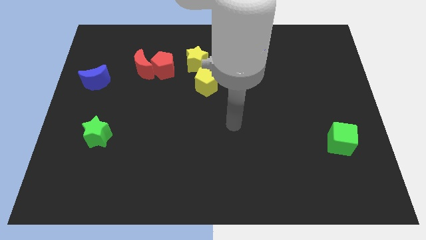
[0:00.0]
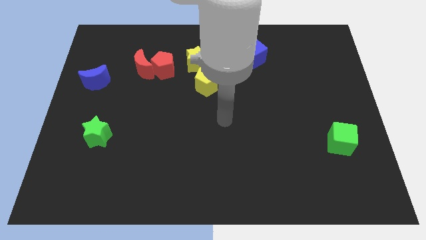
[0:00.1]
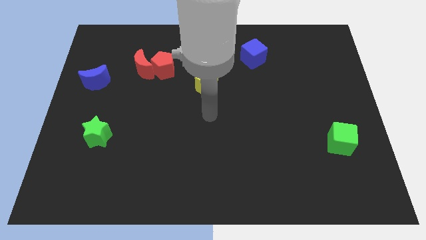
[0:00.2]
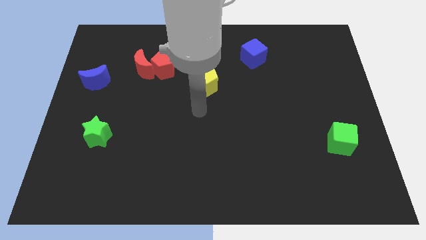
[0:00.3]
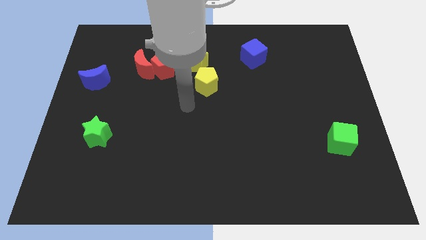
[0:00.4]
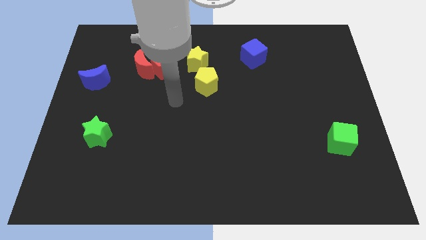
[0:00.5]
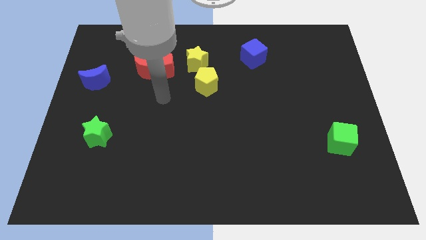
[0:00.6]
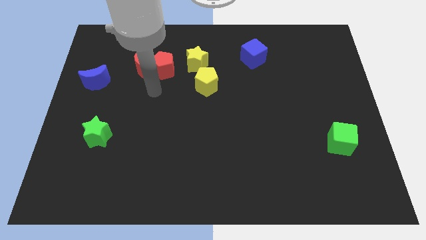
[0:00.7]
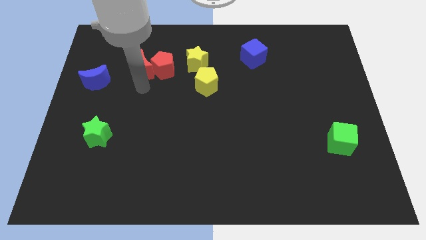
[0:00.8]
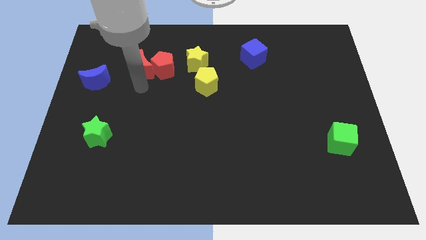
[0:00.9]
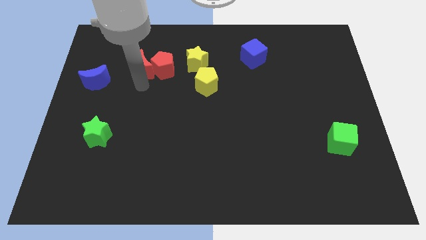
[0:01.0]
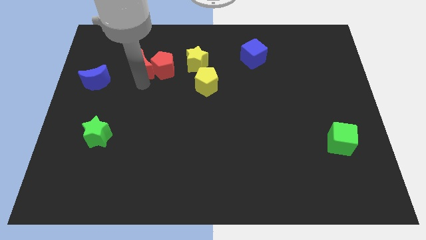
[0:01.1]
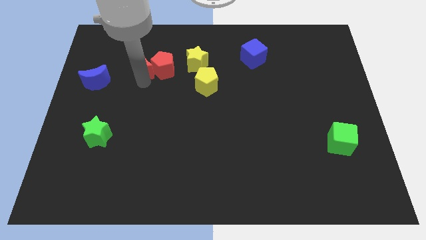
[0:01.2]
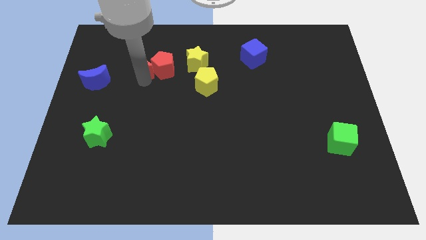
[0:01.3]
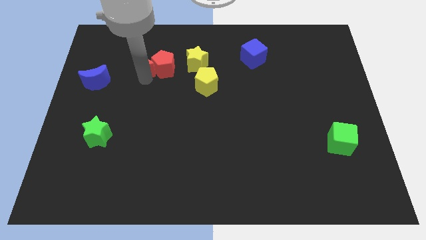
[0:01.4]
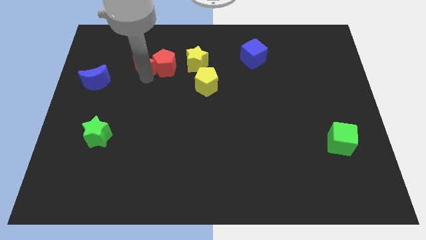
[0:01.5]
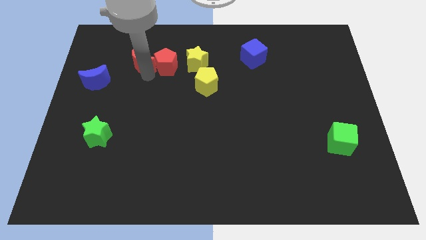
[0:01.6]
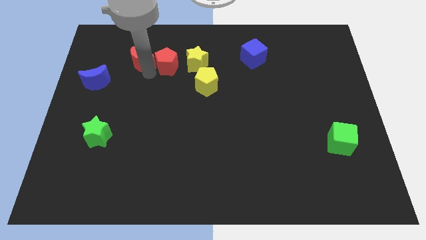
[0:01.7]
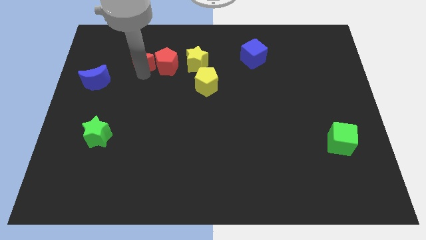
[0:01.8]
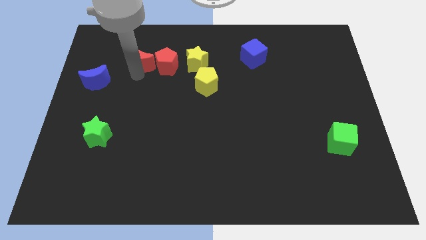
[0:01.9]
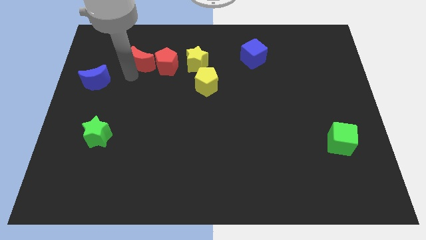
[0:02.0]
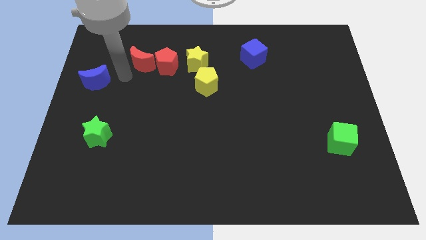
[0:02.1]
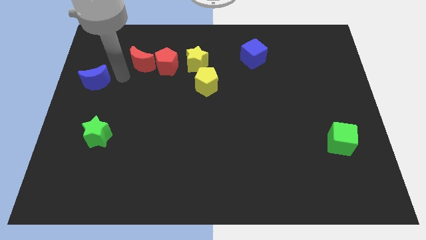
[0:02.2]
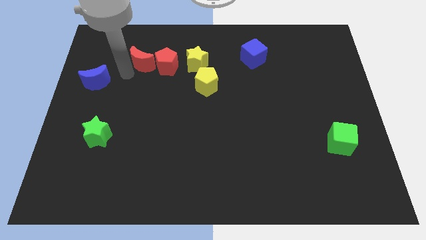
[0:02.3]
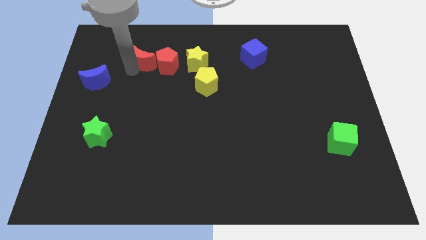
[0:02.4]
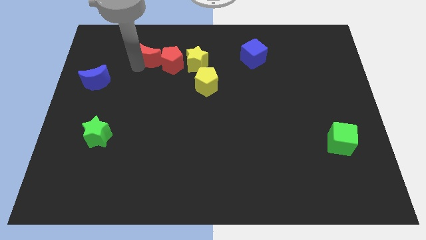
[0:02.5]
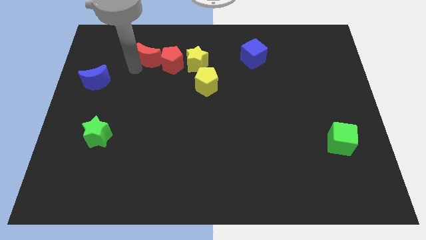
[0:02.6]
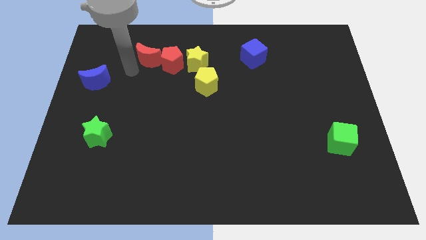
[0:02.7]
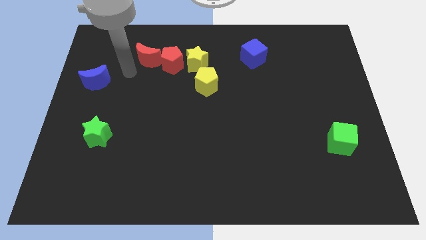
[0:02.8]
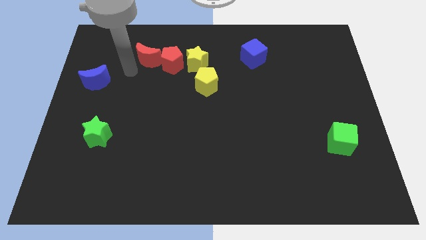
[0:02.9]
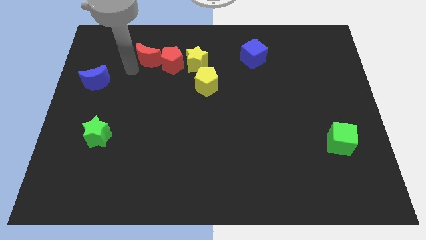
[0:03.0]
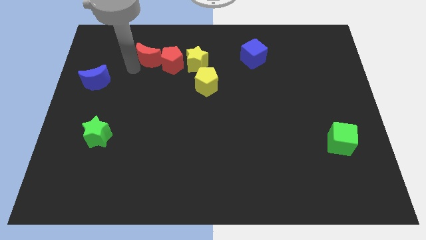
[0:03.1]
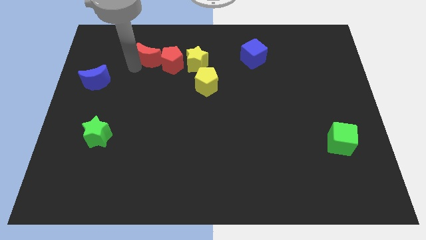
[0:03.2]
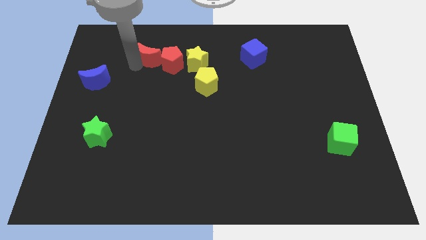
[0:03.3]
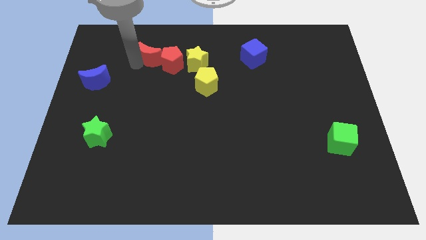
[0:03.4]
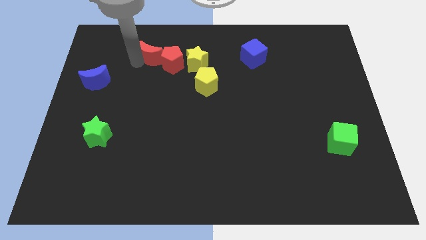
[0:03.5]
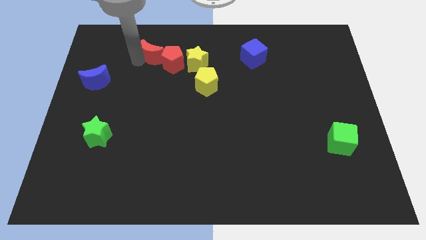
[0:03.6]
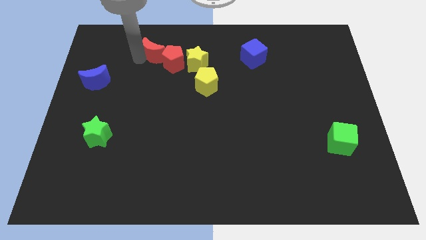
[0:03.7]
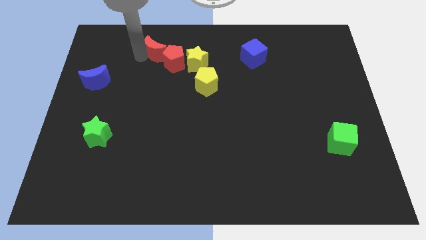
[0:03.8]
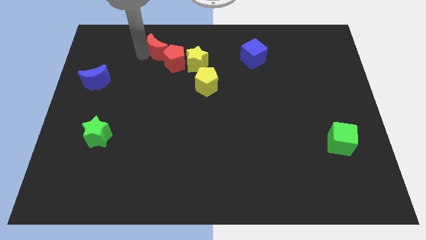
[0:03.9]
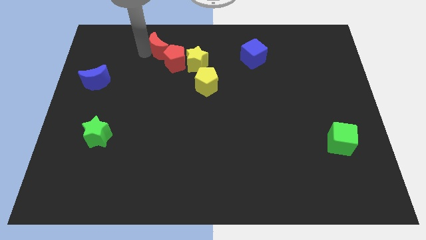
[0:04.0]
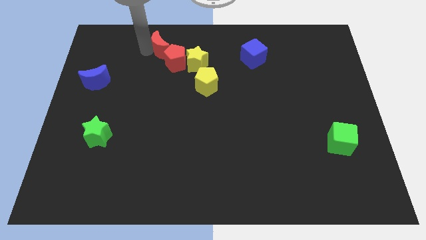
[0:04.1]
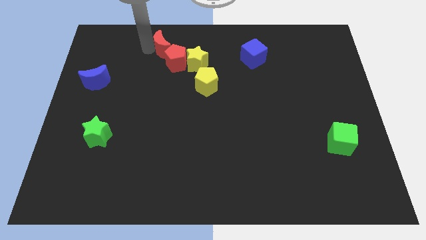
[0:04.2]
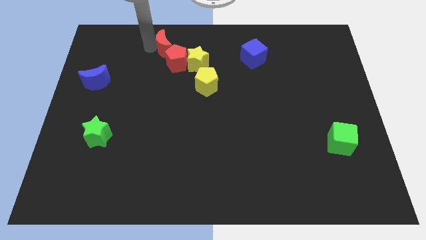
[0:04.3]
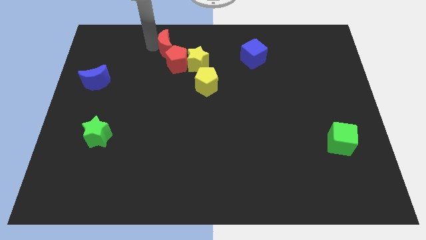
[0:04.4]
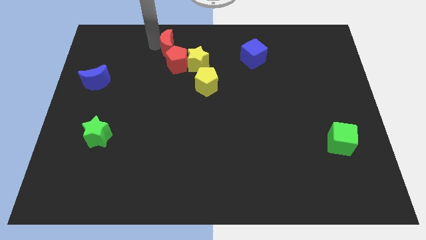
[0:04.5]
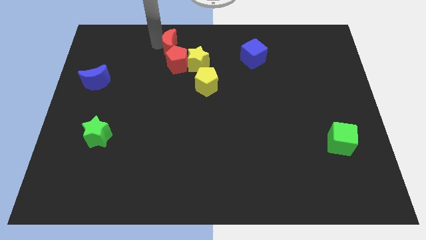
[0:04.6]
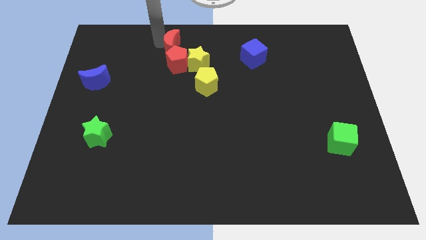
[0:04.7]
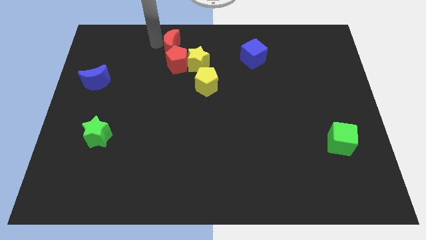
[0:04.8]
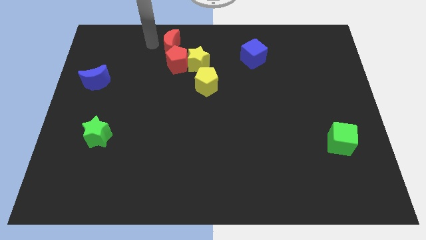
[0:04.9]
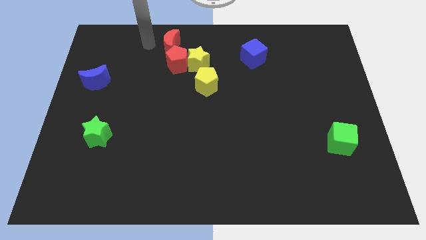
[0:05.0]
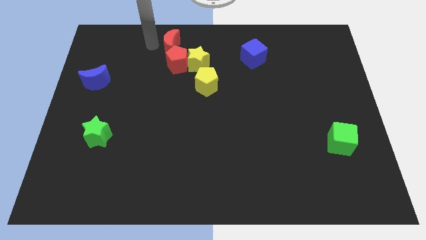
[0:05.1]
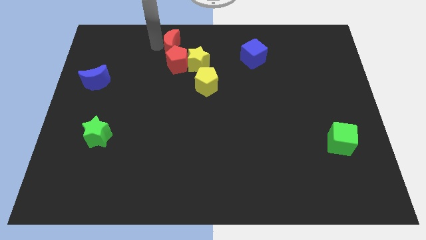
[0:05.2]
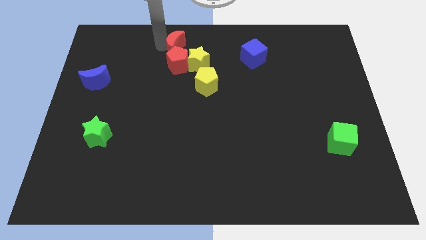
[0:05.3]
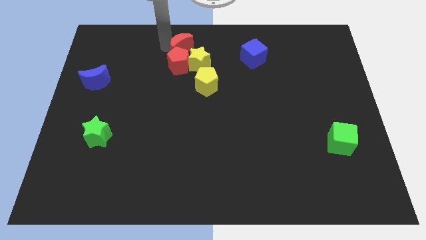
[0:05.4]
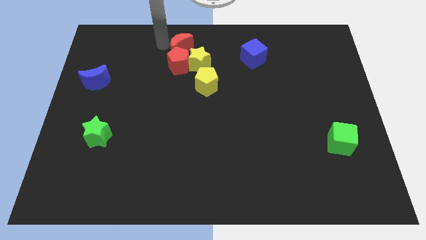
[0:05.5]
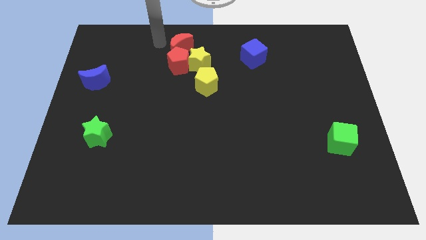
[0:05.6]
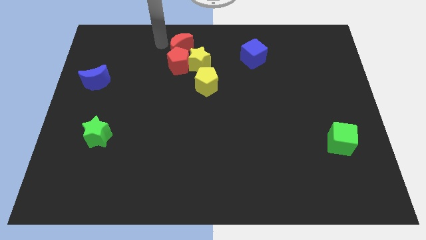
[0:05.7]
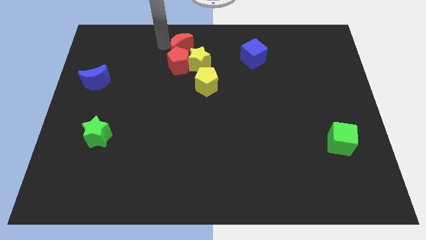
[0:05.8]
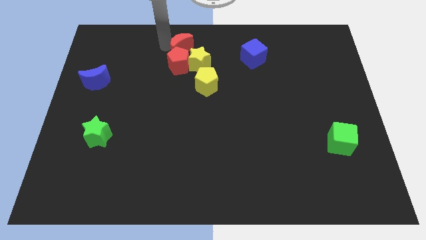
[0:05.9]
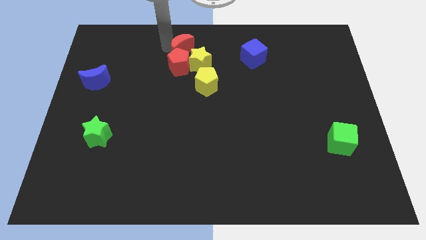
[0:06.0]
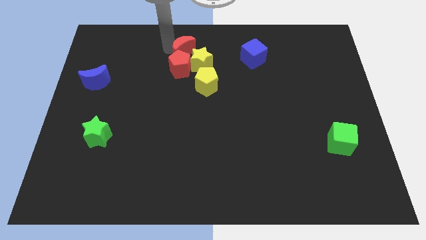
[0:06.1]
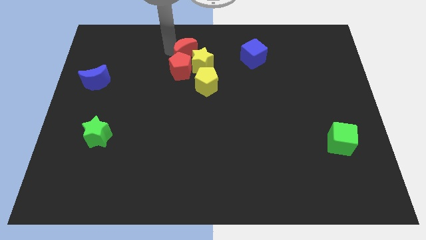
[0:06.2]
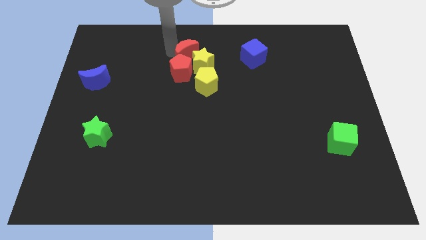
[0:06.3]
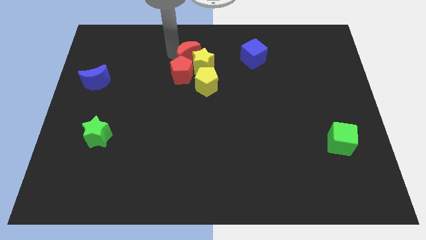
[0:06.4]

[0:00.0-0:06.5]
move the red moon above the yellow pentagon

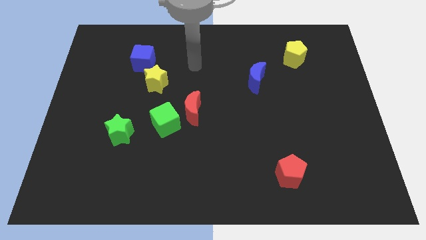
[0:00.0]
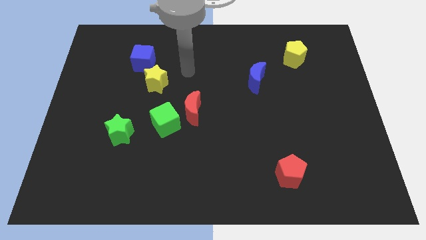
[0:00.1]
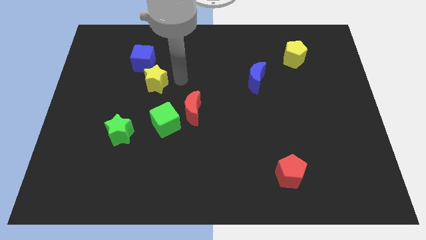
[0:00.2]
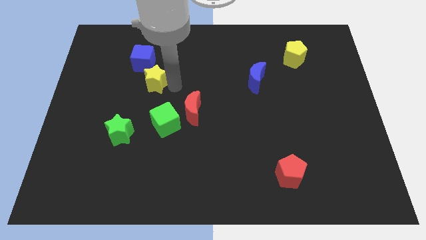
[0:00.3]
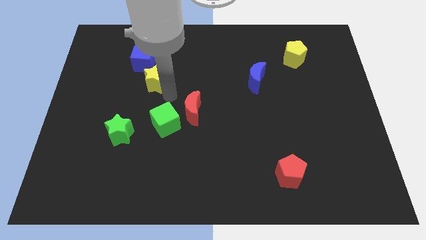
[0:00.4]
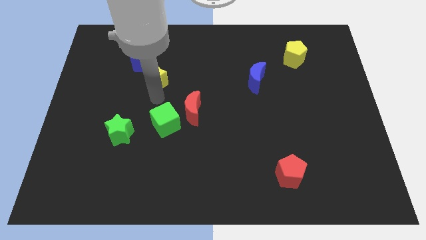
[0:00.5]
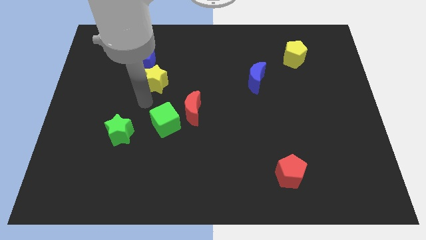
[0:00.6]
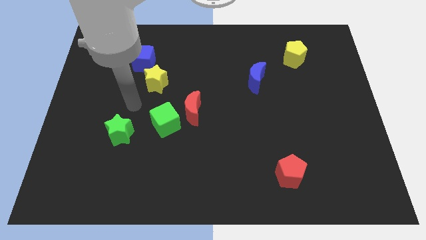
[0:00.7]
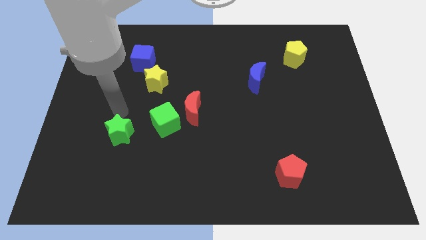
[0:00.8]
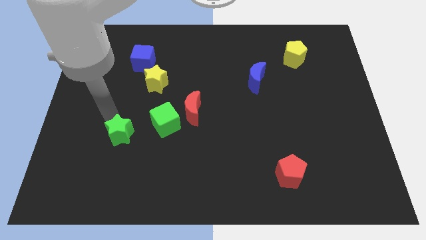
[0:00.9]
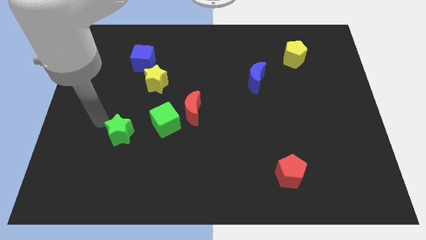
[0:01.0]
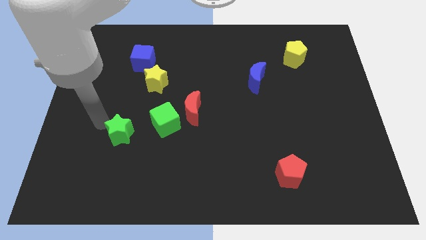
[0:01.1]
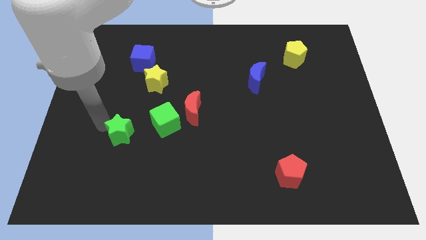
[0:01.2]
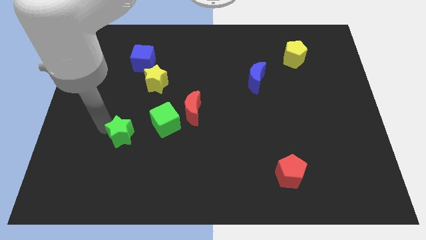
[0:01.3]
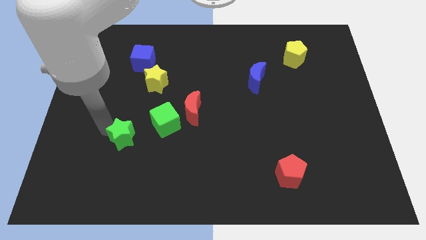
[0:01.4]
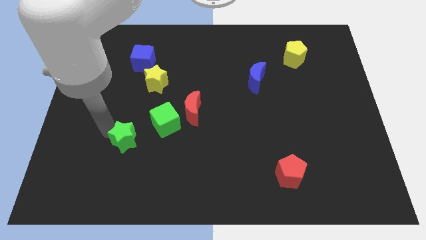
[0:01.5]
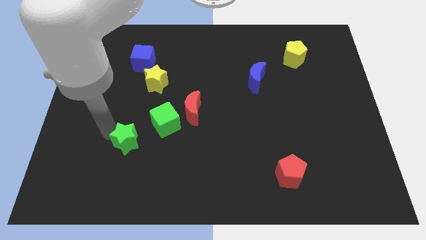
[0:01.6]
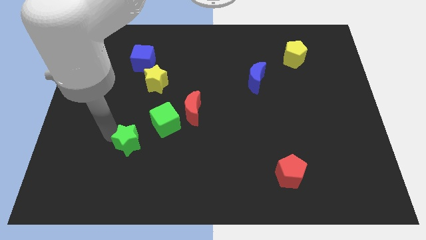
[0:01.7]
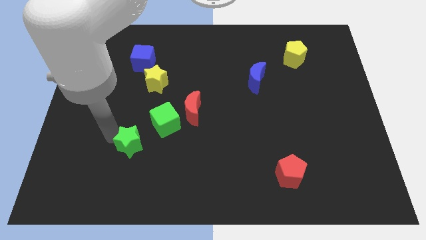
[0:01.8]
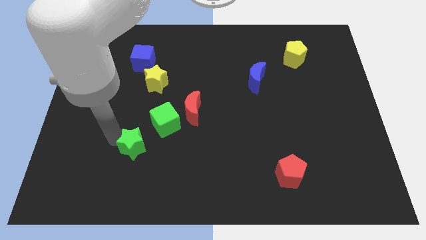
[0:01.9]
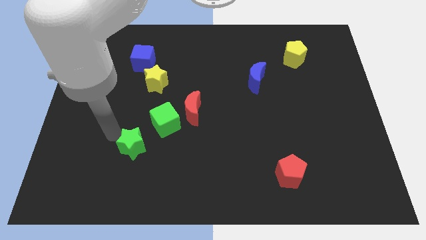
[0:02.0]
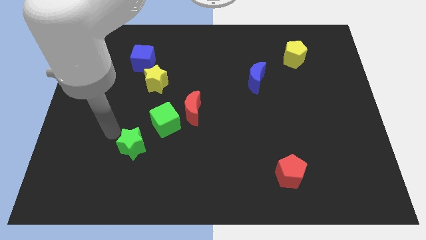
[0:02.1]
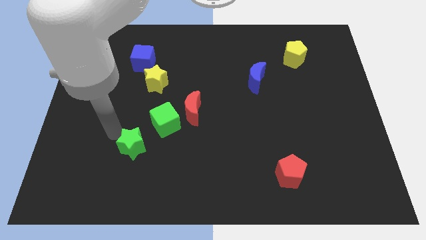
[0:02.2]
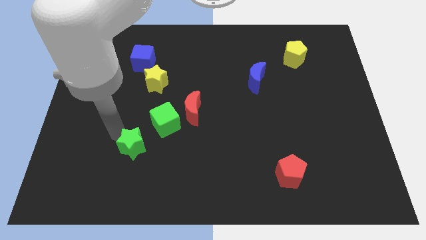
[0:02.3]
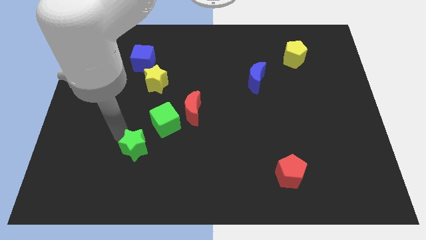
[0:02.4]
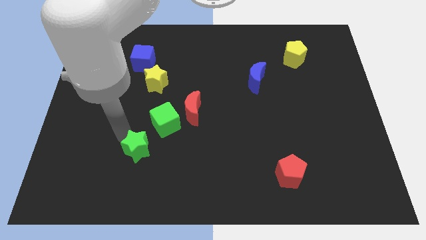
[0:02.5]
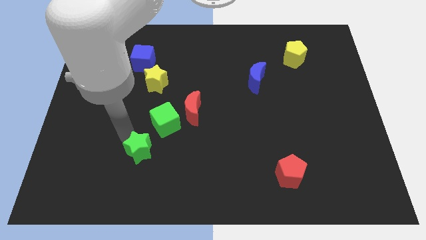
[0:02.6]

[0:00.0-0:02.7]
move the green star below the green cube
